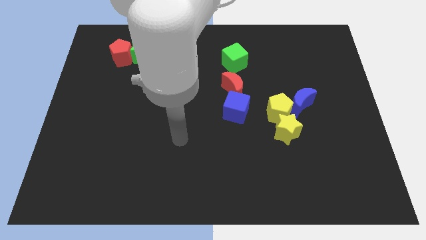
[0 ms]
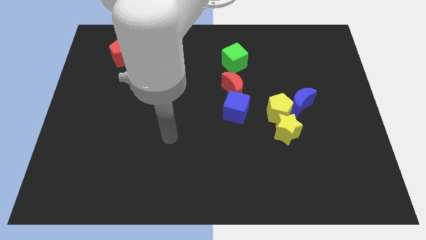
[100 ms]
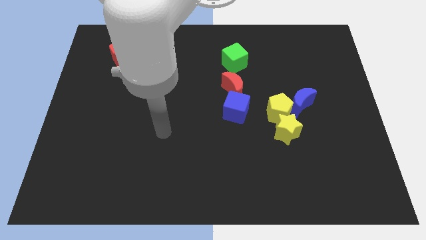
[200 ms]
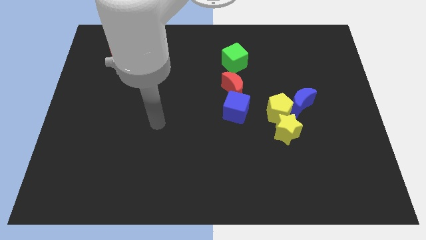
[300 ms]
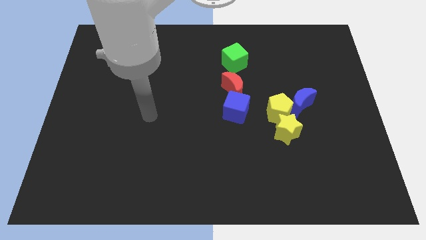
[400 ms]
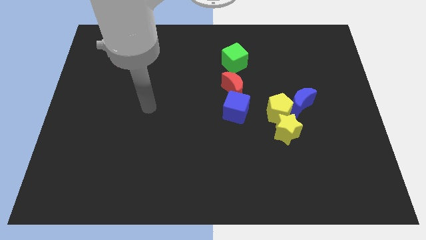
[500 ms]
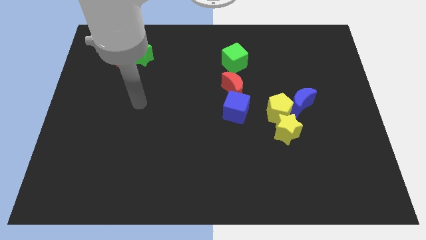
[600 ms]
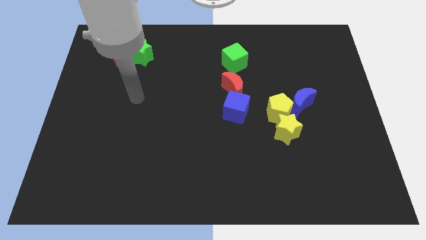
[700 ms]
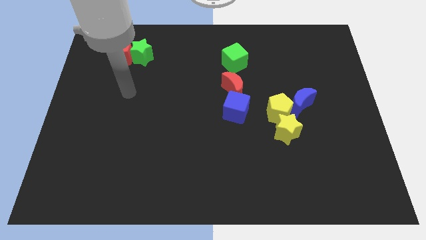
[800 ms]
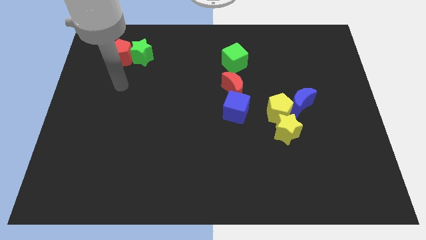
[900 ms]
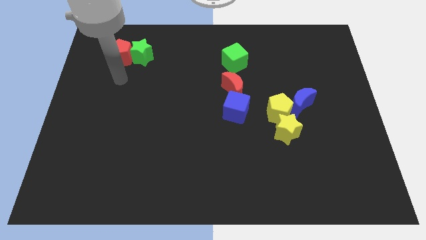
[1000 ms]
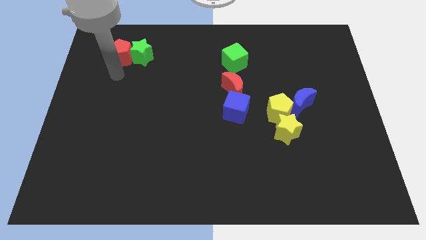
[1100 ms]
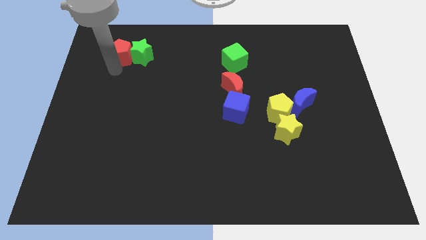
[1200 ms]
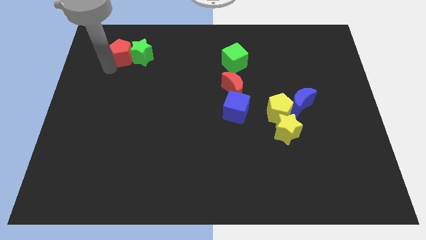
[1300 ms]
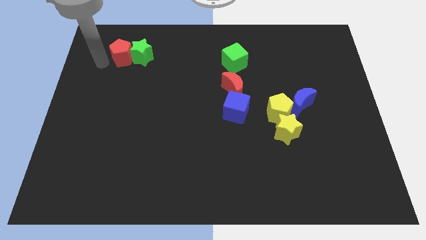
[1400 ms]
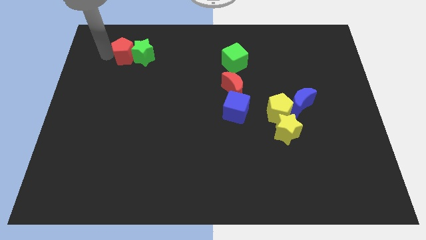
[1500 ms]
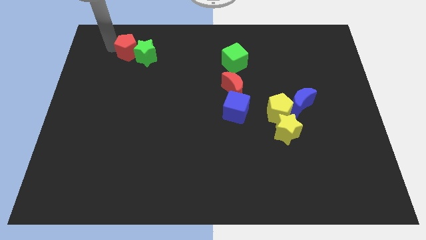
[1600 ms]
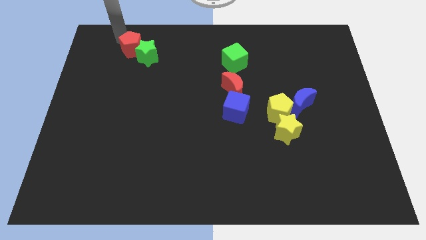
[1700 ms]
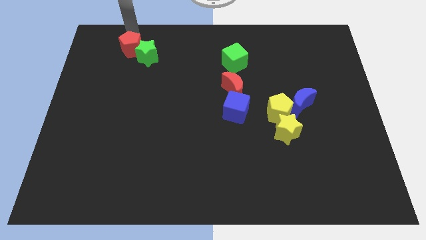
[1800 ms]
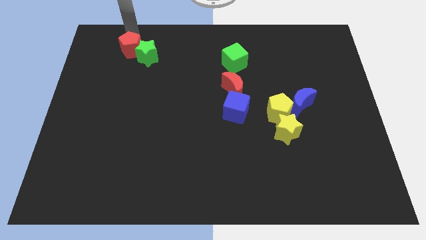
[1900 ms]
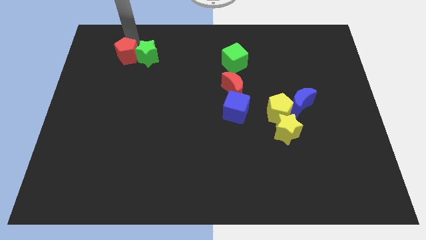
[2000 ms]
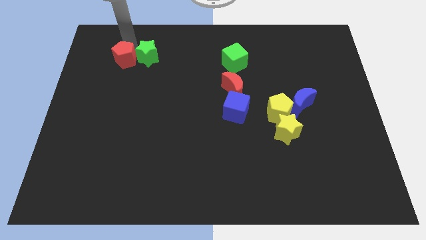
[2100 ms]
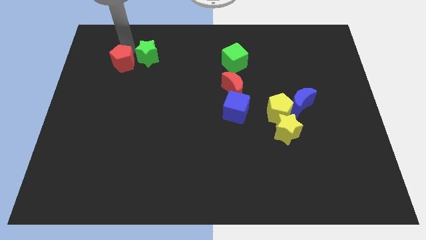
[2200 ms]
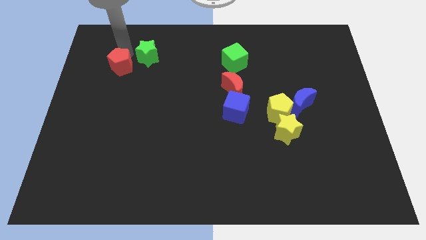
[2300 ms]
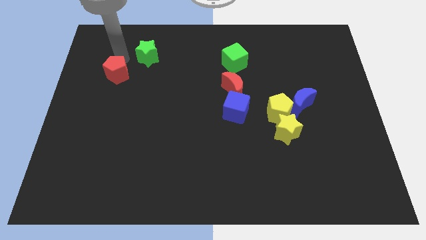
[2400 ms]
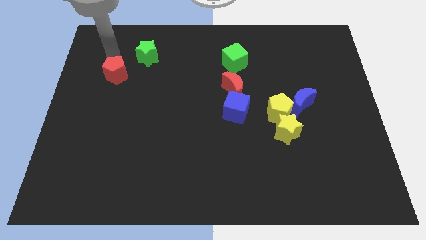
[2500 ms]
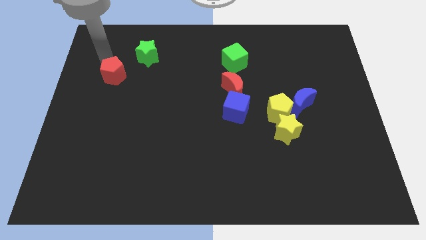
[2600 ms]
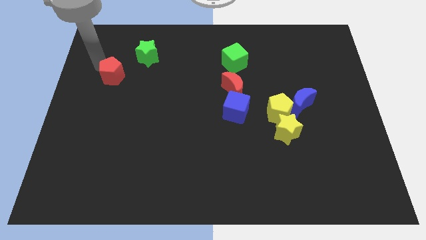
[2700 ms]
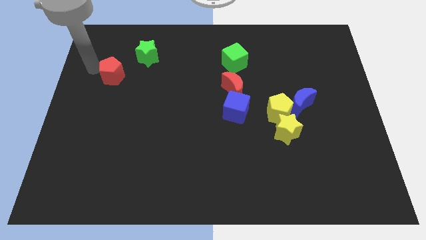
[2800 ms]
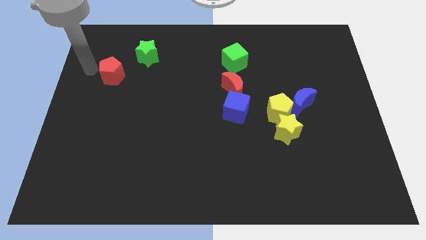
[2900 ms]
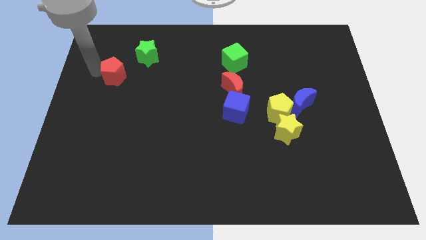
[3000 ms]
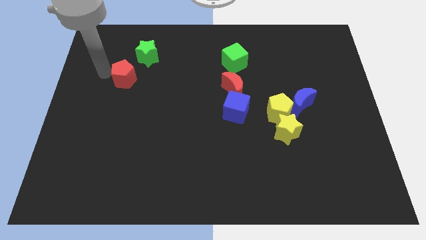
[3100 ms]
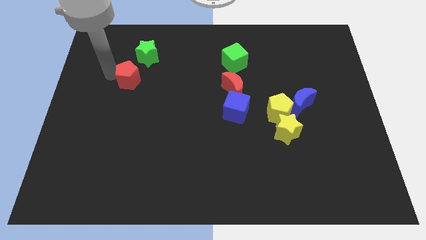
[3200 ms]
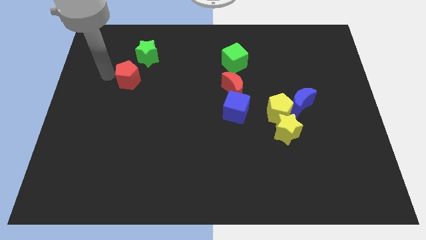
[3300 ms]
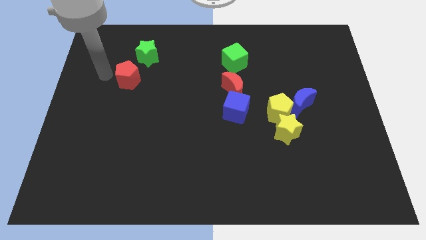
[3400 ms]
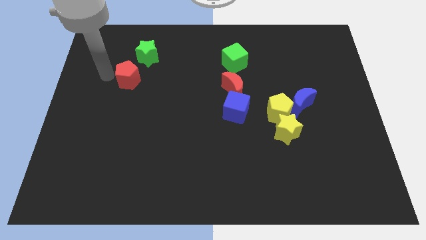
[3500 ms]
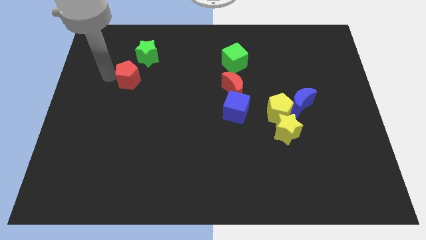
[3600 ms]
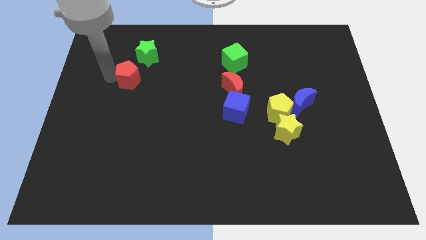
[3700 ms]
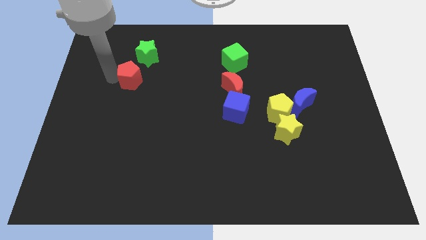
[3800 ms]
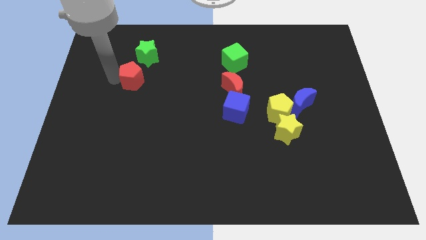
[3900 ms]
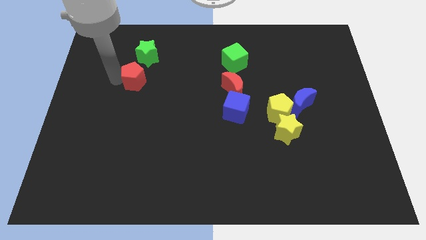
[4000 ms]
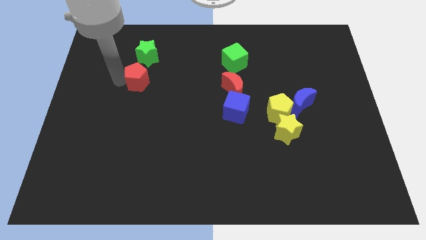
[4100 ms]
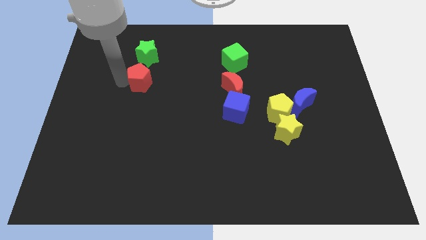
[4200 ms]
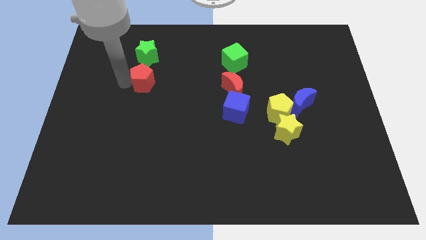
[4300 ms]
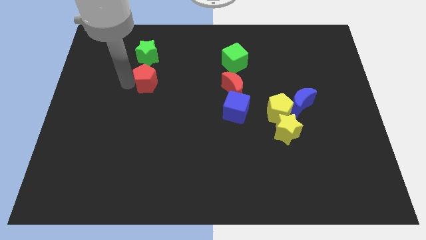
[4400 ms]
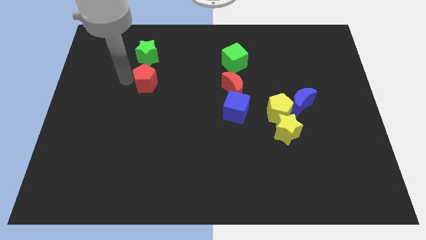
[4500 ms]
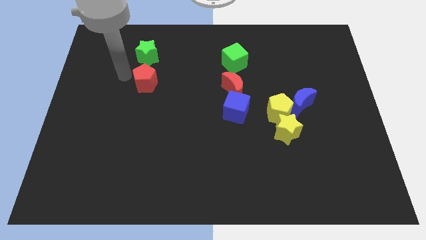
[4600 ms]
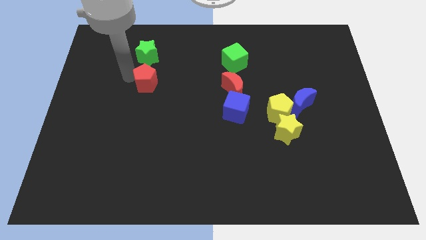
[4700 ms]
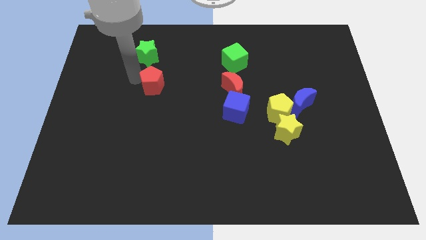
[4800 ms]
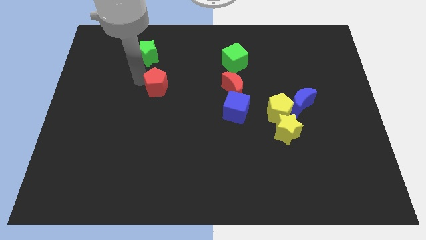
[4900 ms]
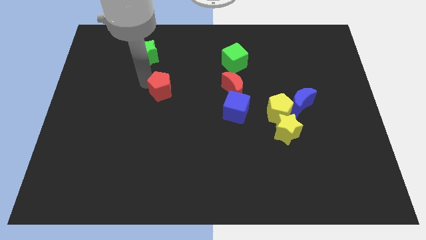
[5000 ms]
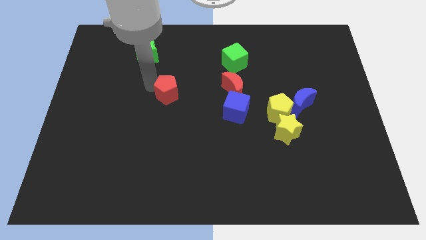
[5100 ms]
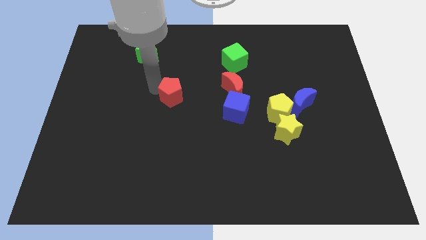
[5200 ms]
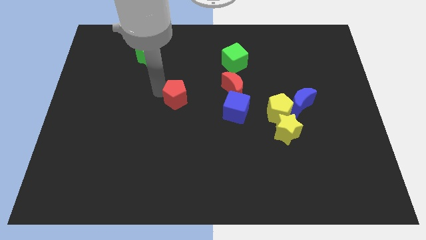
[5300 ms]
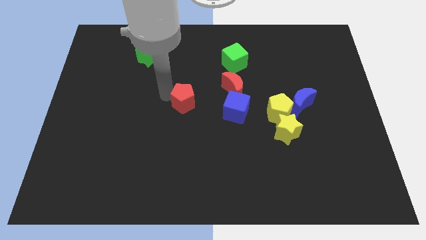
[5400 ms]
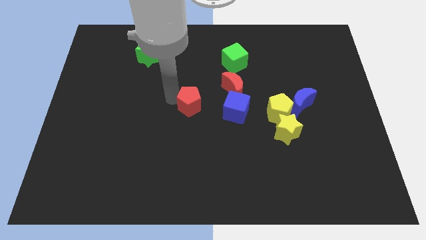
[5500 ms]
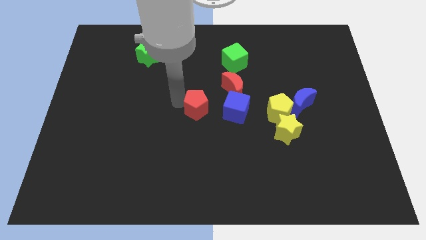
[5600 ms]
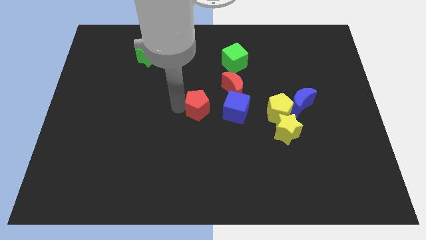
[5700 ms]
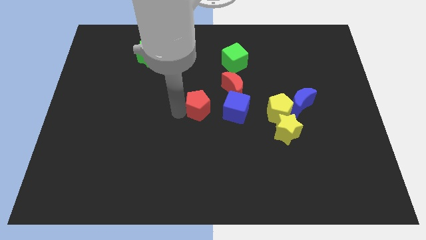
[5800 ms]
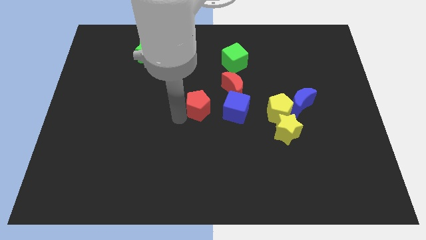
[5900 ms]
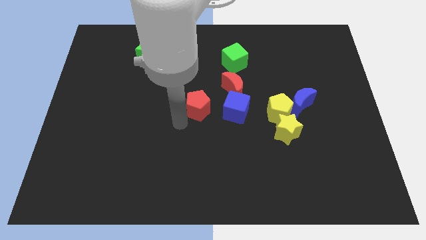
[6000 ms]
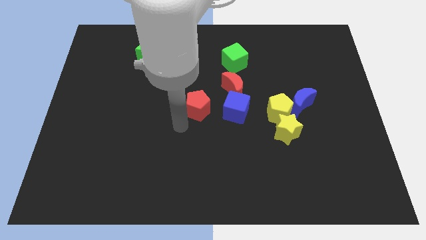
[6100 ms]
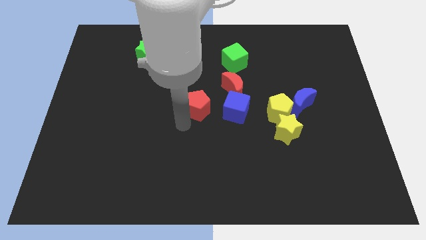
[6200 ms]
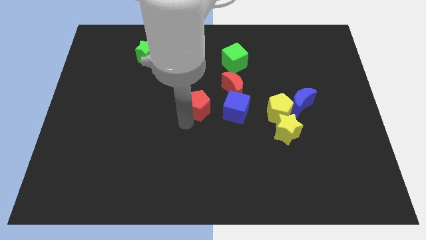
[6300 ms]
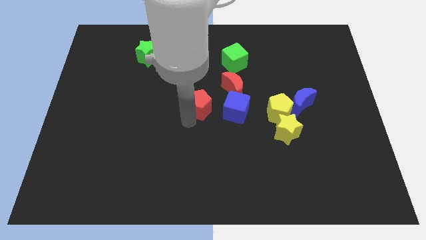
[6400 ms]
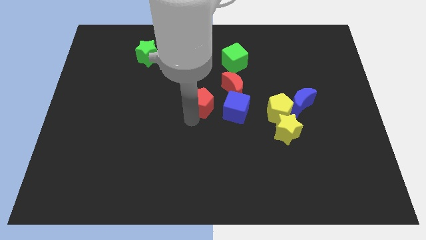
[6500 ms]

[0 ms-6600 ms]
push the red pentagon to the top left of the blue cube

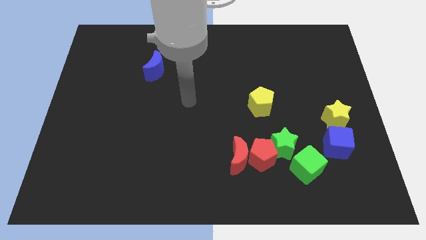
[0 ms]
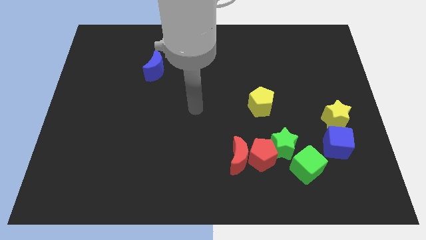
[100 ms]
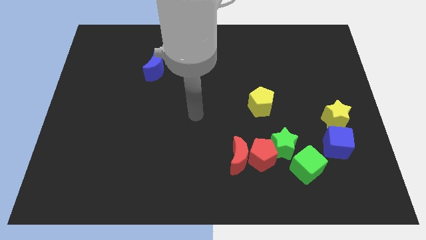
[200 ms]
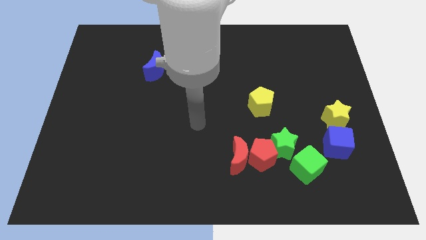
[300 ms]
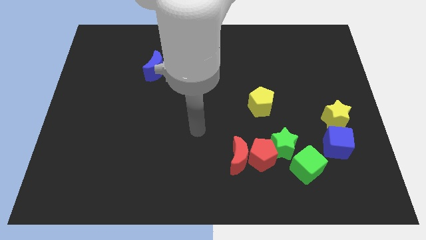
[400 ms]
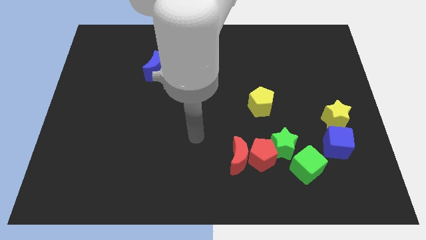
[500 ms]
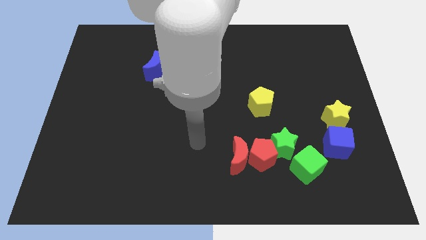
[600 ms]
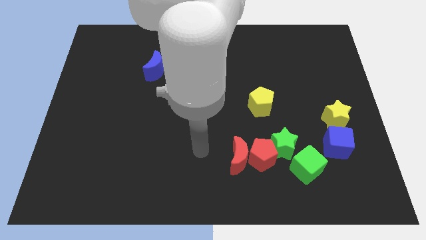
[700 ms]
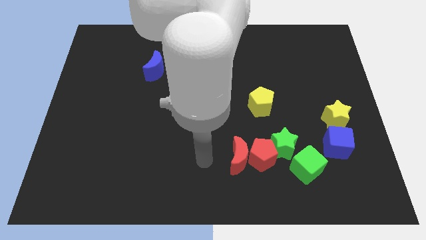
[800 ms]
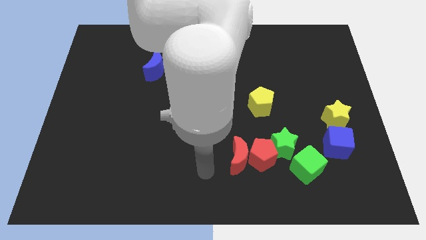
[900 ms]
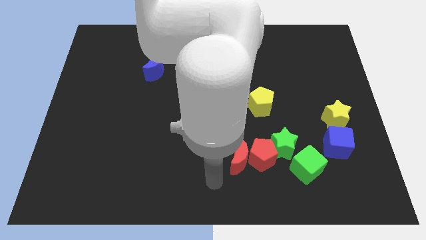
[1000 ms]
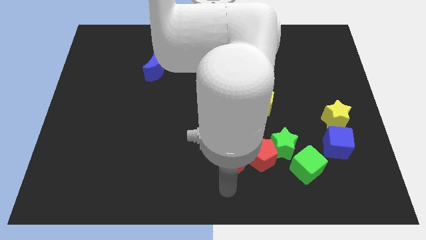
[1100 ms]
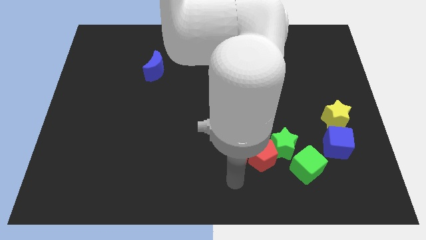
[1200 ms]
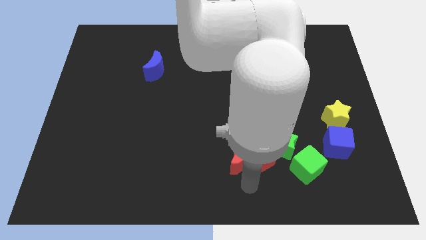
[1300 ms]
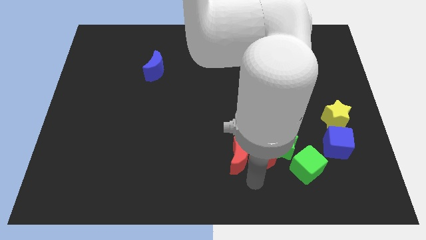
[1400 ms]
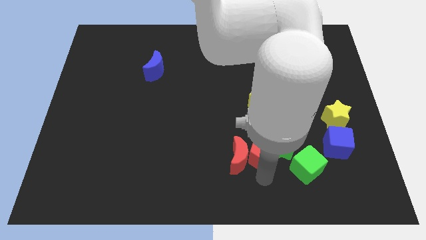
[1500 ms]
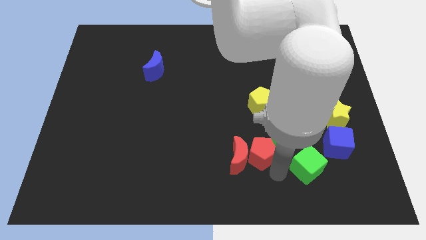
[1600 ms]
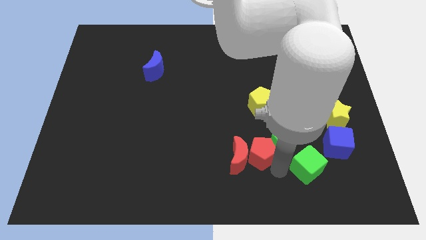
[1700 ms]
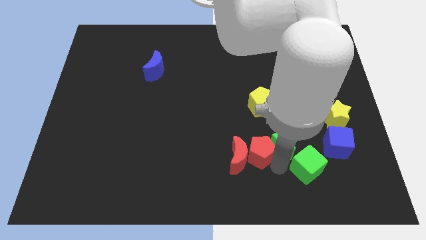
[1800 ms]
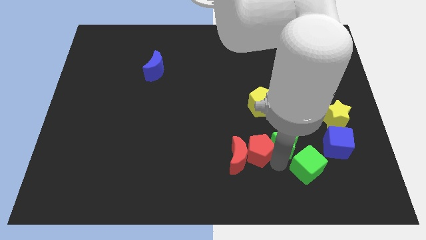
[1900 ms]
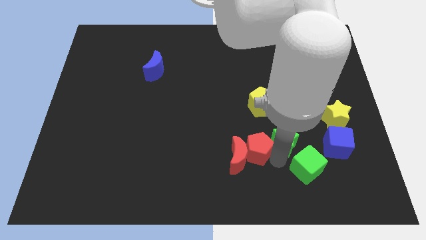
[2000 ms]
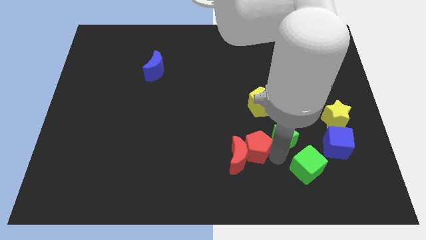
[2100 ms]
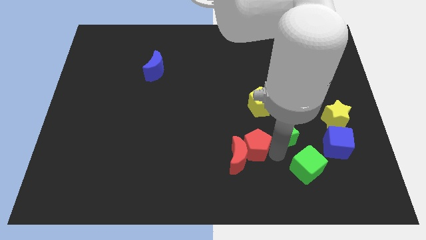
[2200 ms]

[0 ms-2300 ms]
move the green star to the left of the yellow star
